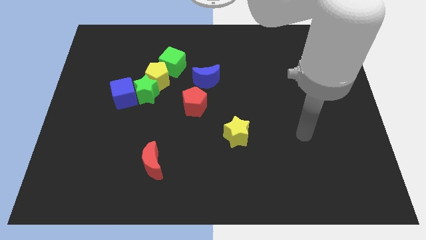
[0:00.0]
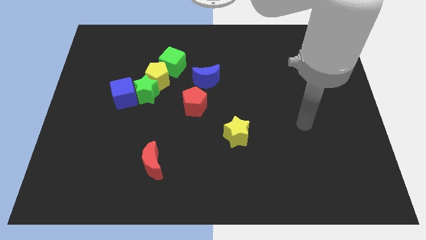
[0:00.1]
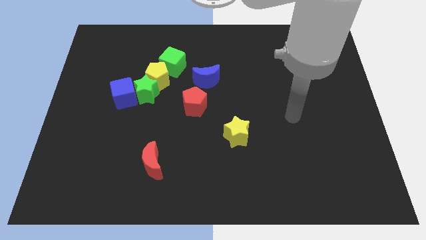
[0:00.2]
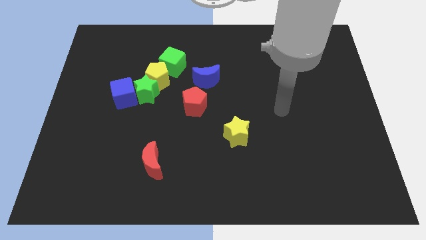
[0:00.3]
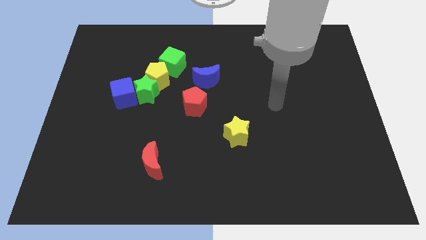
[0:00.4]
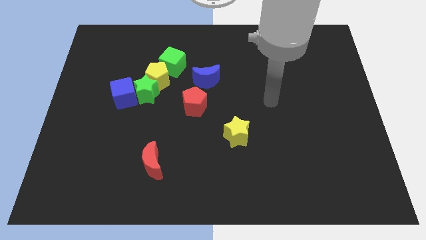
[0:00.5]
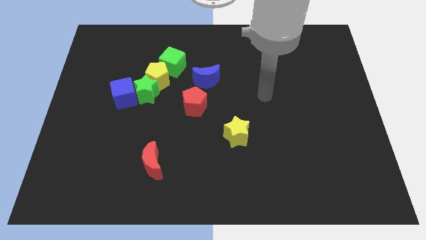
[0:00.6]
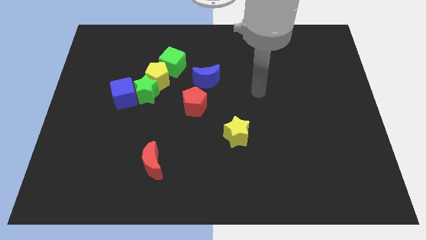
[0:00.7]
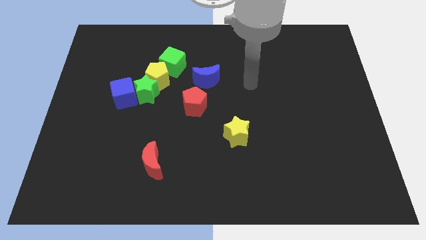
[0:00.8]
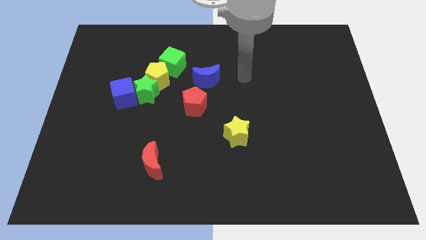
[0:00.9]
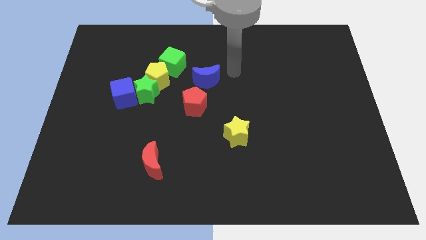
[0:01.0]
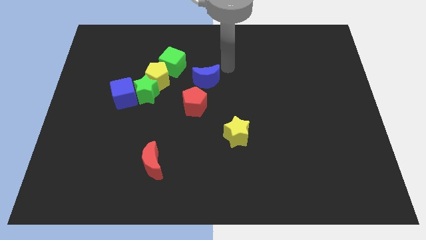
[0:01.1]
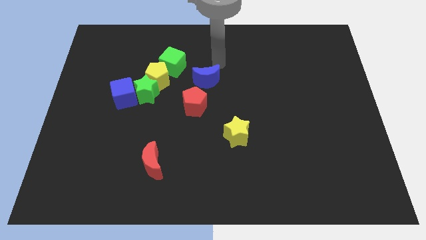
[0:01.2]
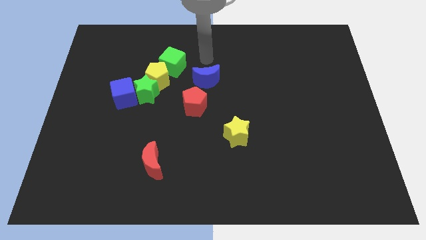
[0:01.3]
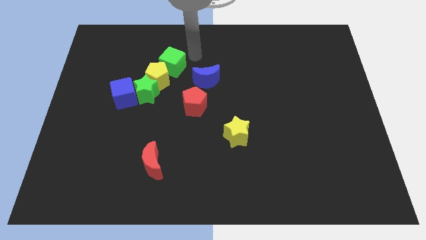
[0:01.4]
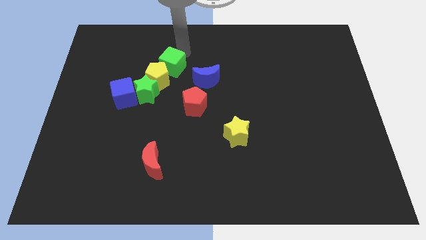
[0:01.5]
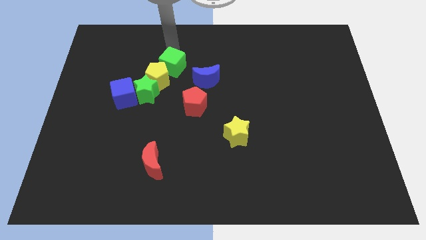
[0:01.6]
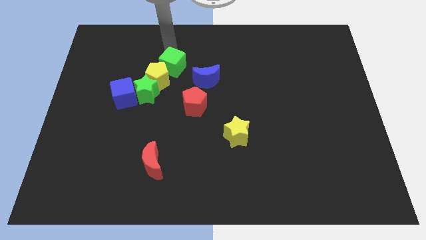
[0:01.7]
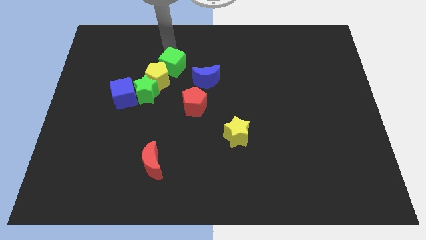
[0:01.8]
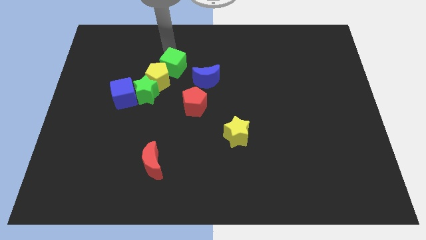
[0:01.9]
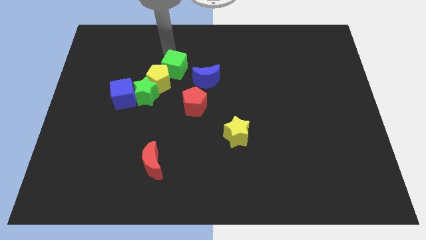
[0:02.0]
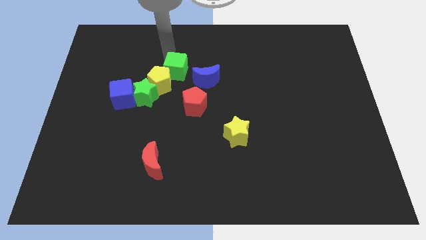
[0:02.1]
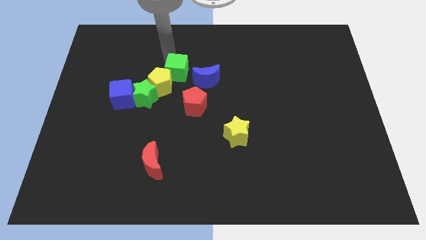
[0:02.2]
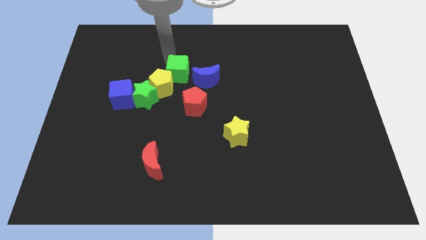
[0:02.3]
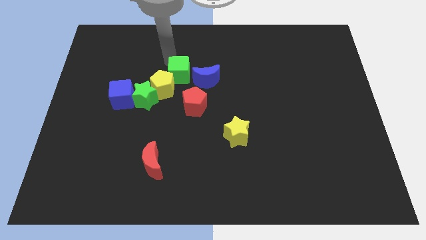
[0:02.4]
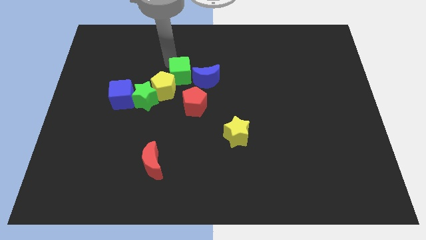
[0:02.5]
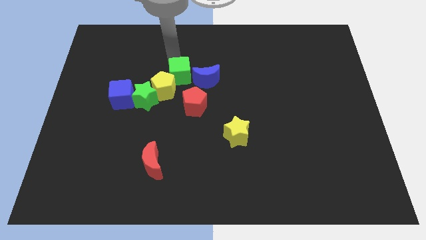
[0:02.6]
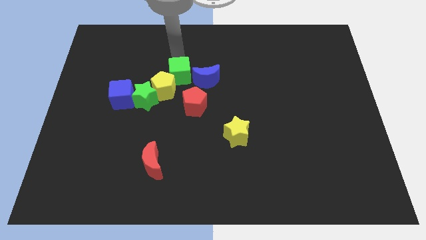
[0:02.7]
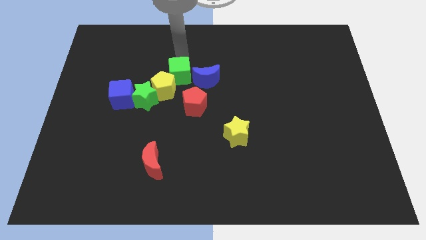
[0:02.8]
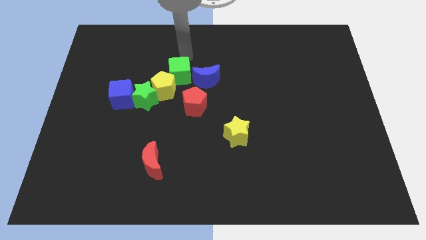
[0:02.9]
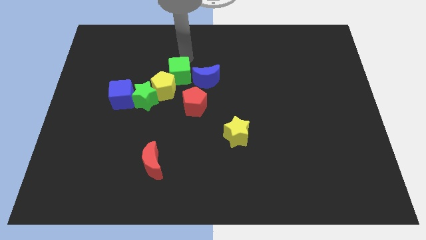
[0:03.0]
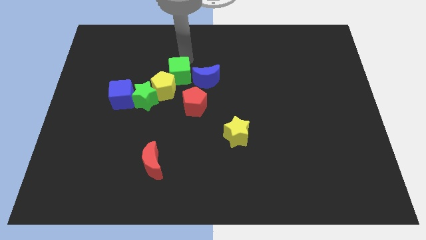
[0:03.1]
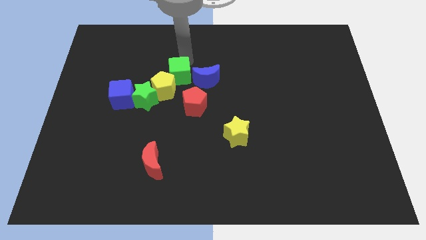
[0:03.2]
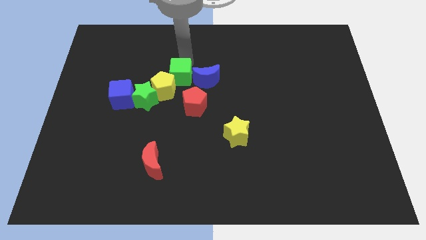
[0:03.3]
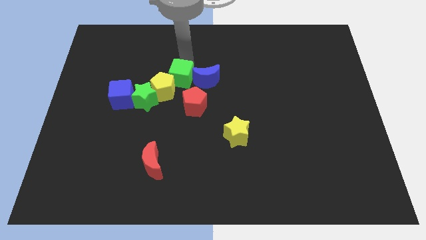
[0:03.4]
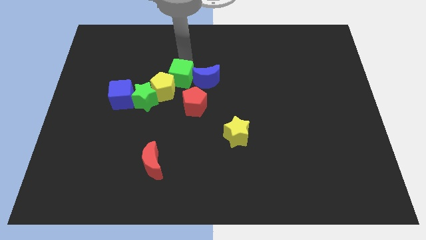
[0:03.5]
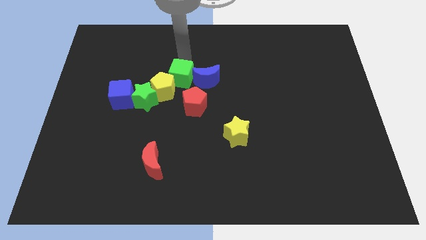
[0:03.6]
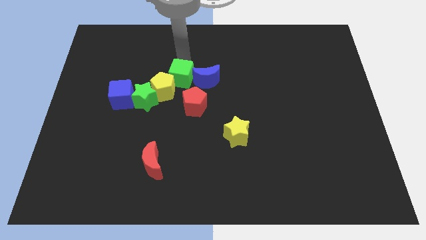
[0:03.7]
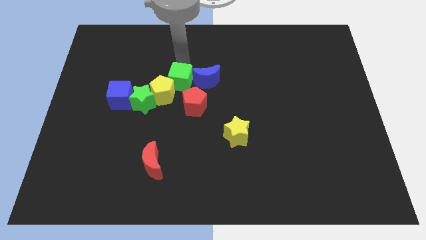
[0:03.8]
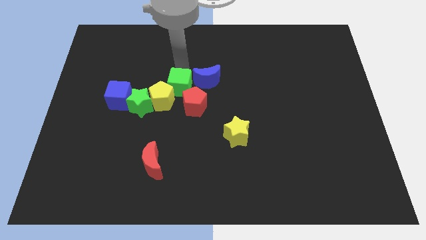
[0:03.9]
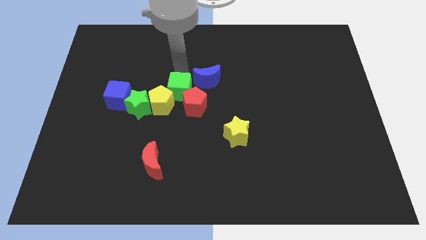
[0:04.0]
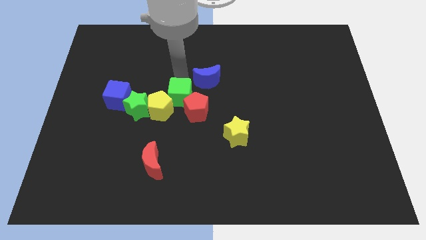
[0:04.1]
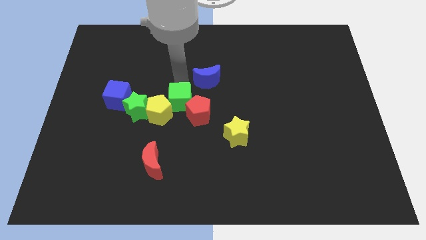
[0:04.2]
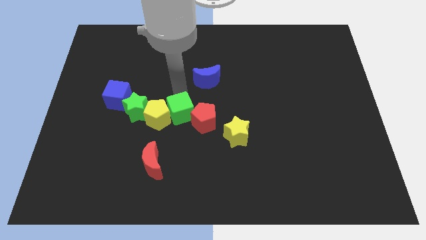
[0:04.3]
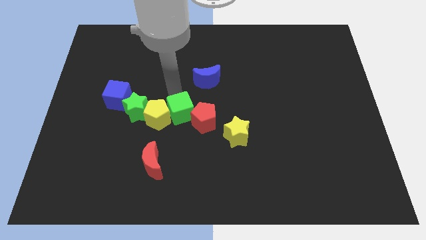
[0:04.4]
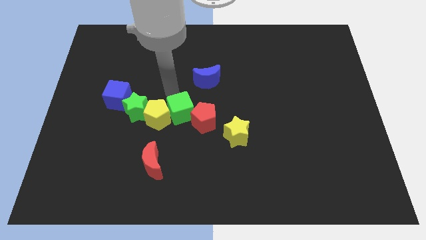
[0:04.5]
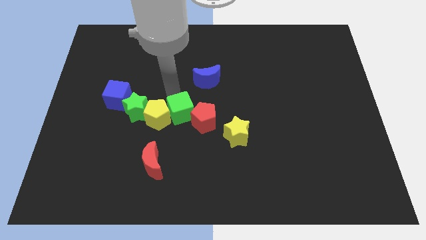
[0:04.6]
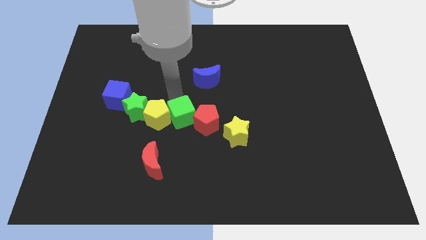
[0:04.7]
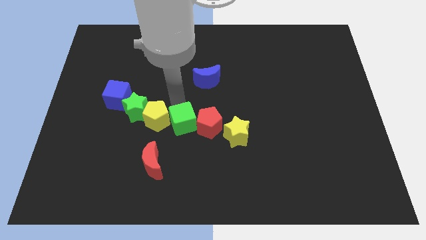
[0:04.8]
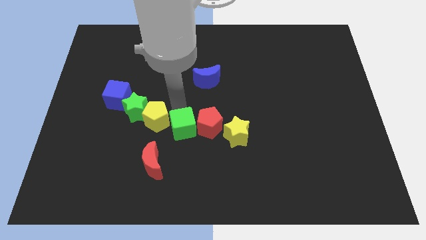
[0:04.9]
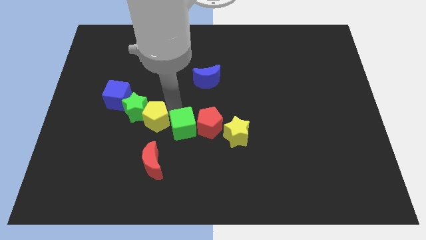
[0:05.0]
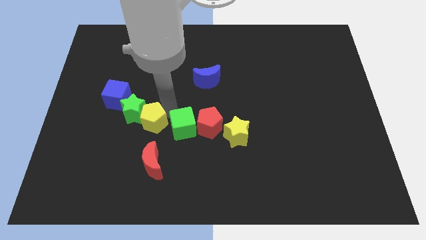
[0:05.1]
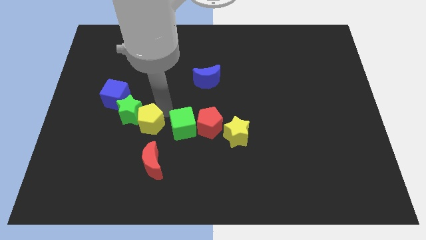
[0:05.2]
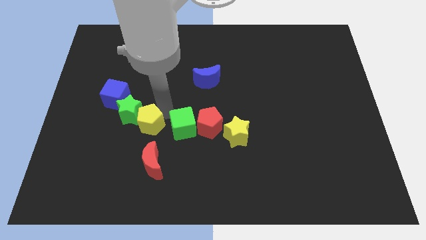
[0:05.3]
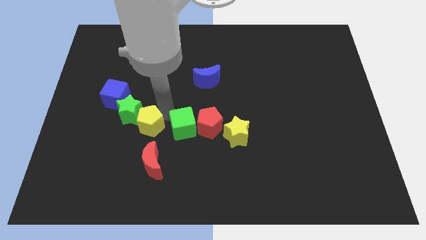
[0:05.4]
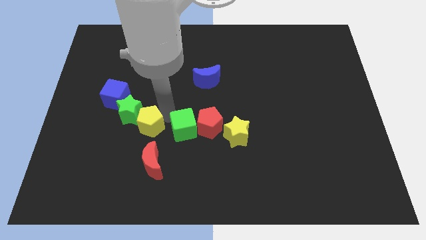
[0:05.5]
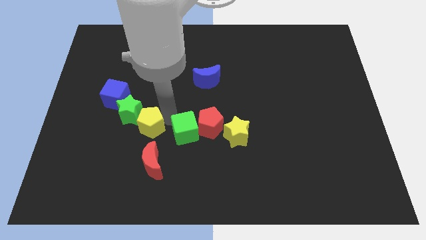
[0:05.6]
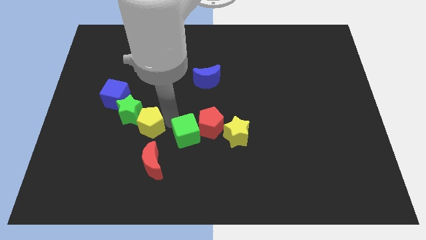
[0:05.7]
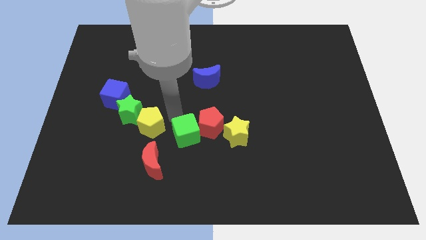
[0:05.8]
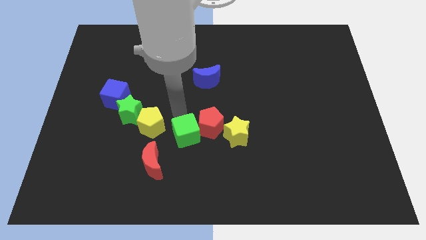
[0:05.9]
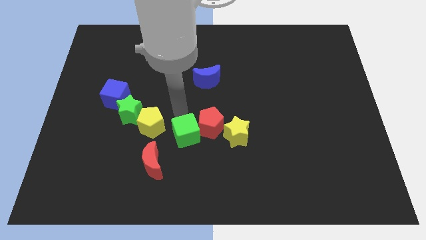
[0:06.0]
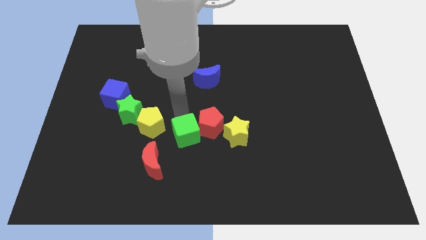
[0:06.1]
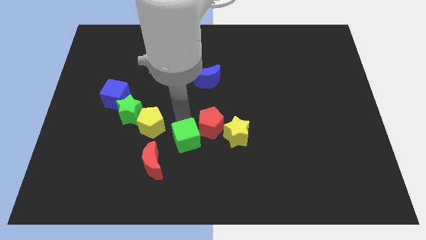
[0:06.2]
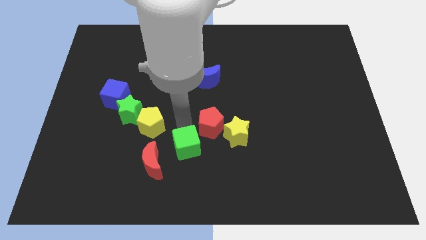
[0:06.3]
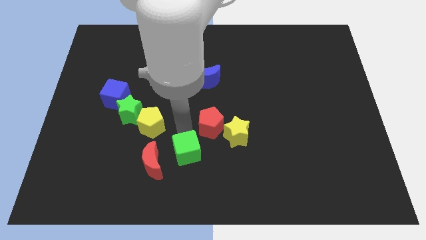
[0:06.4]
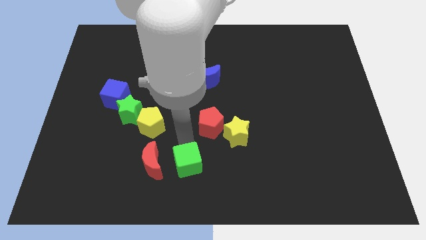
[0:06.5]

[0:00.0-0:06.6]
put the green cube to the bottom

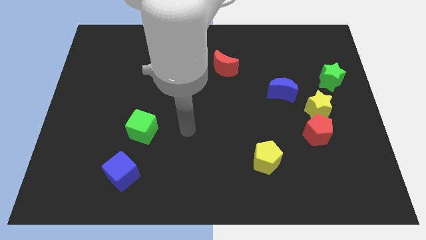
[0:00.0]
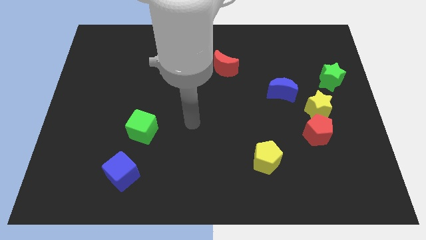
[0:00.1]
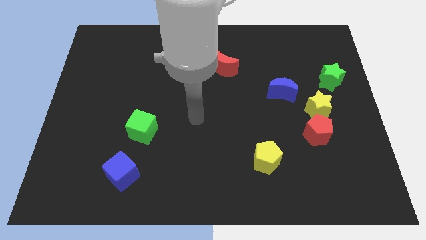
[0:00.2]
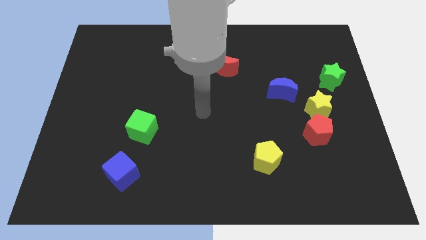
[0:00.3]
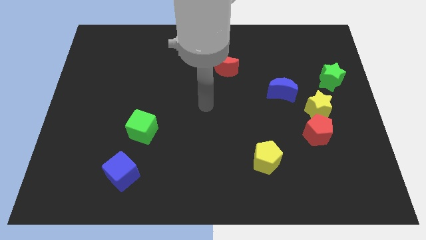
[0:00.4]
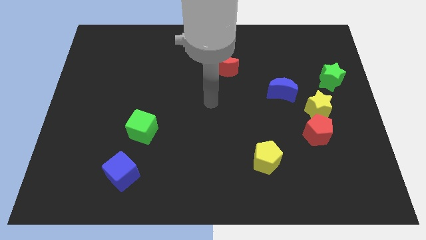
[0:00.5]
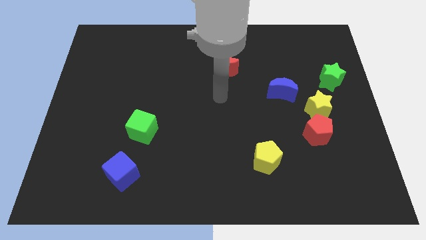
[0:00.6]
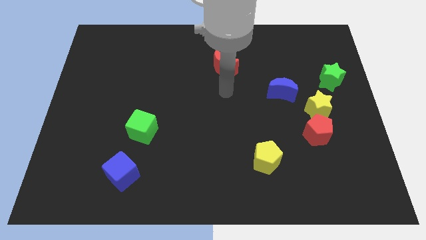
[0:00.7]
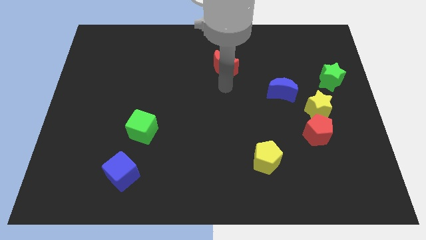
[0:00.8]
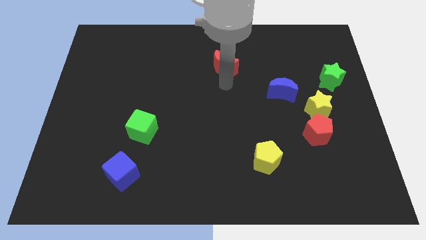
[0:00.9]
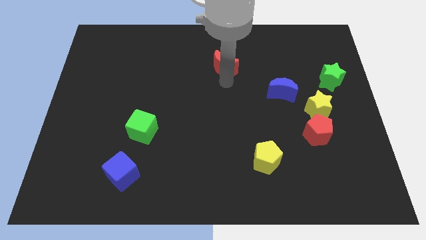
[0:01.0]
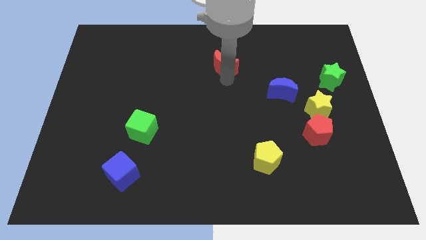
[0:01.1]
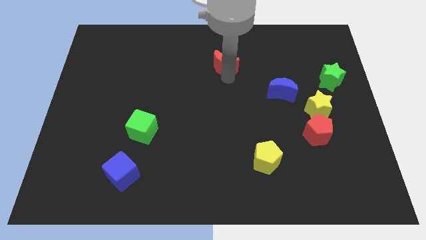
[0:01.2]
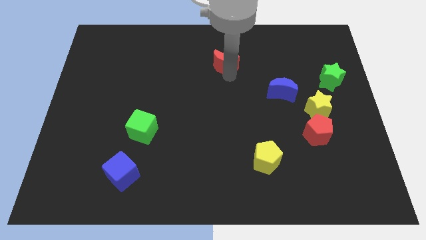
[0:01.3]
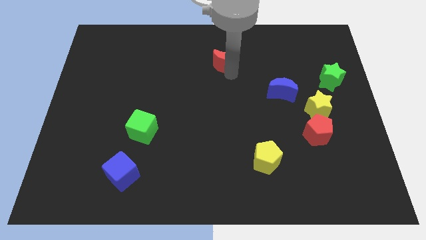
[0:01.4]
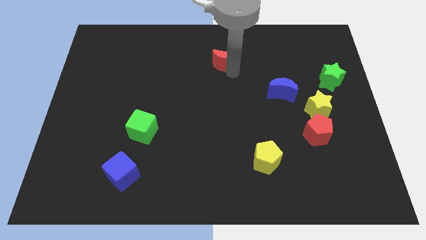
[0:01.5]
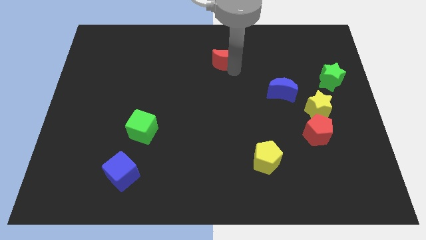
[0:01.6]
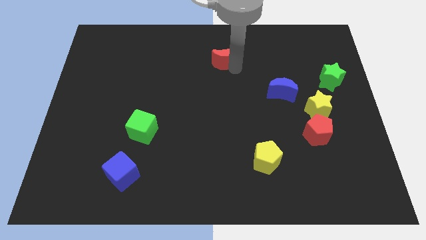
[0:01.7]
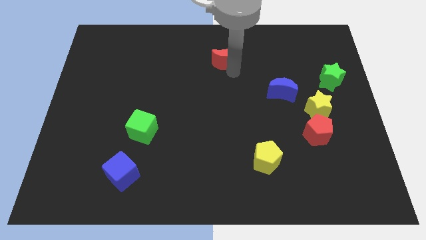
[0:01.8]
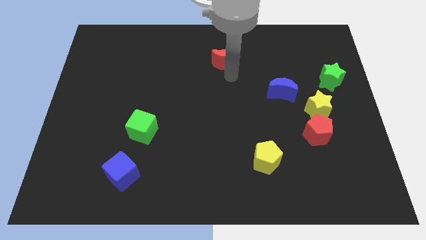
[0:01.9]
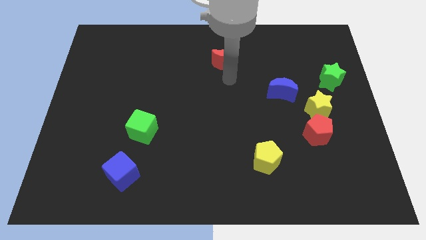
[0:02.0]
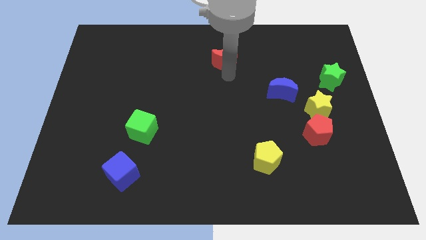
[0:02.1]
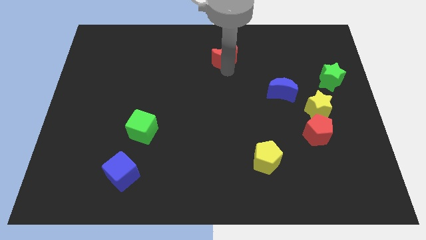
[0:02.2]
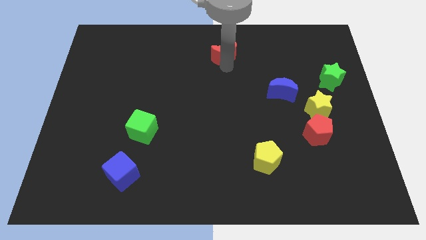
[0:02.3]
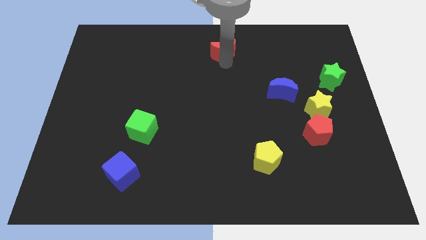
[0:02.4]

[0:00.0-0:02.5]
put the red moon to the top side
